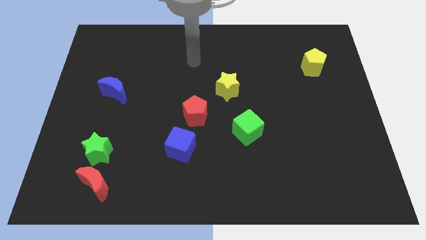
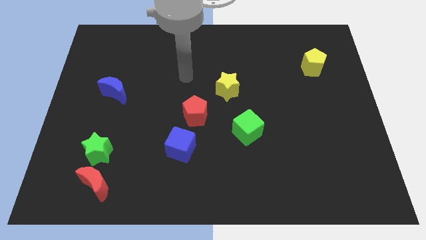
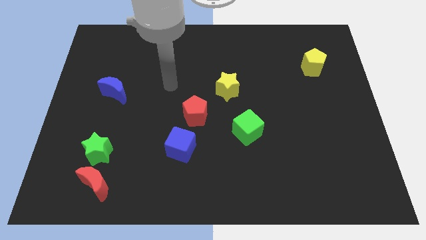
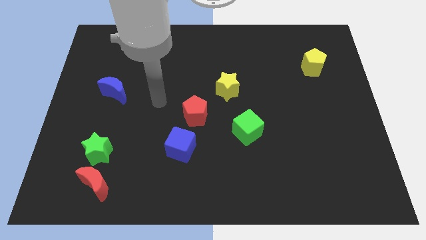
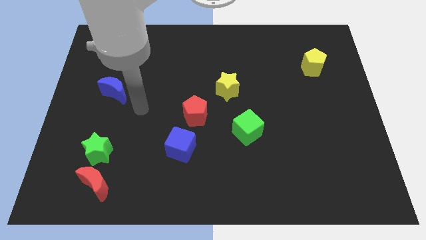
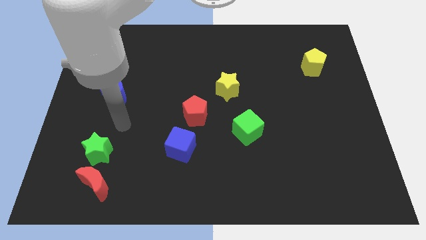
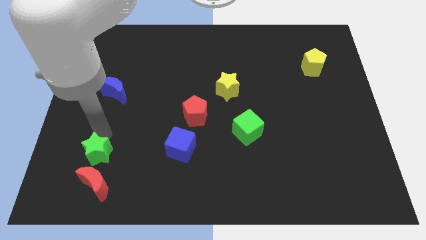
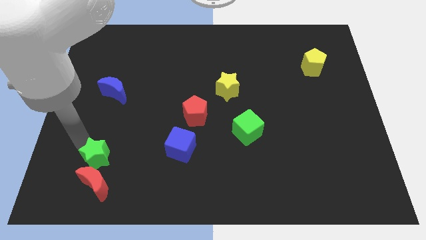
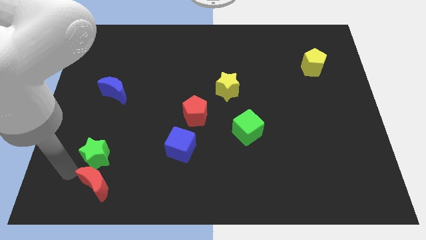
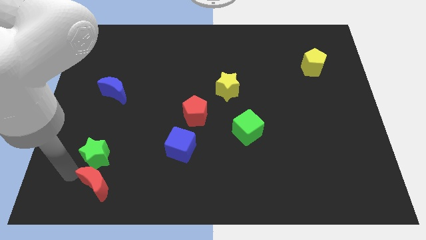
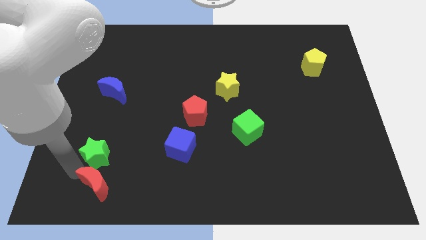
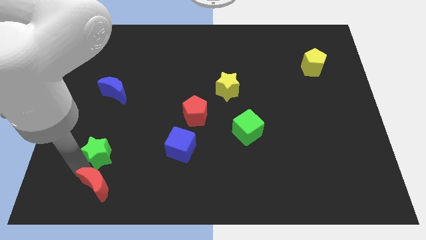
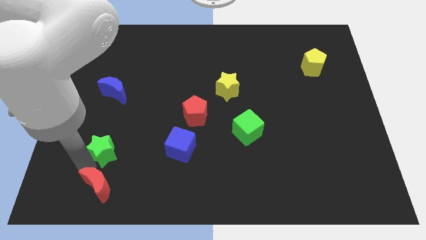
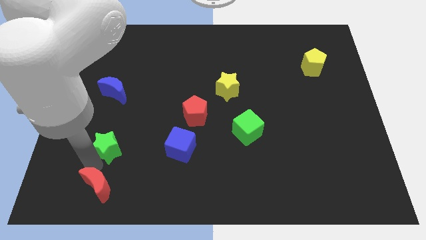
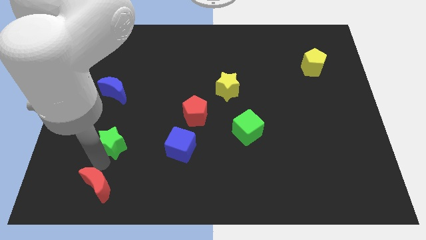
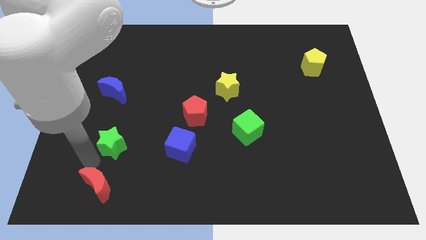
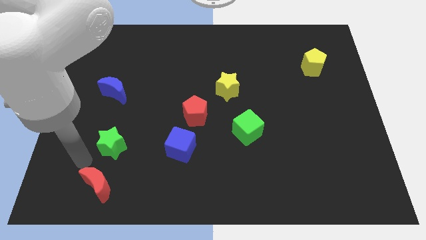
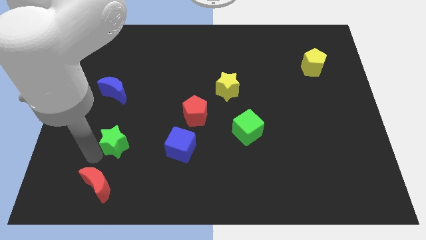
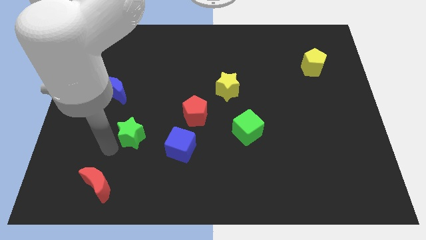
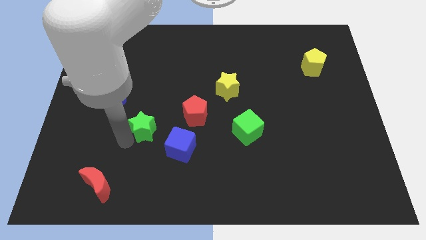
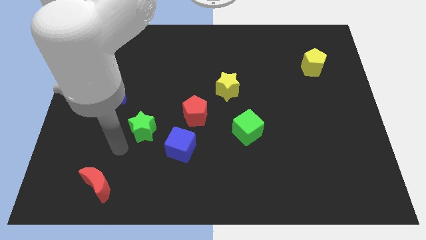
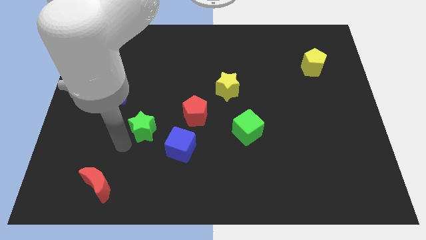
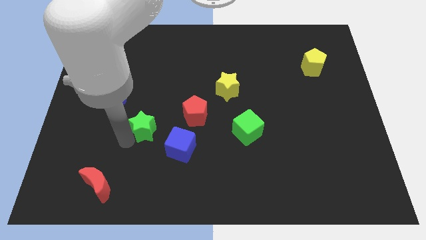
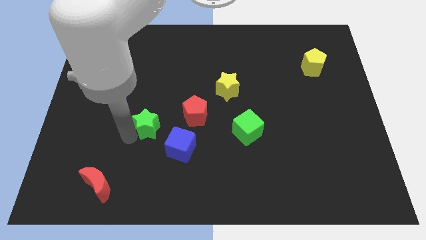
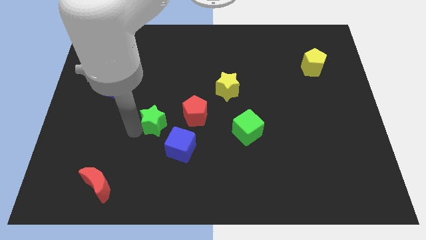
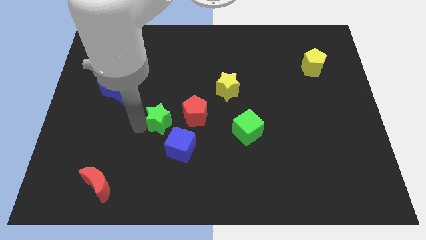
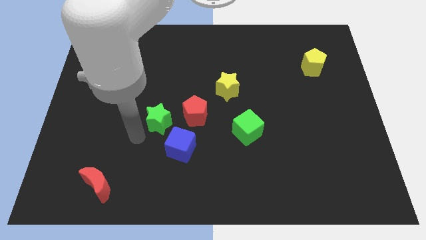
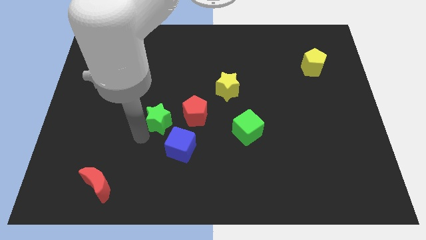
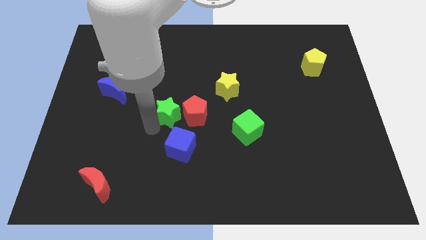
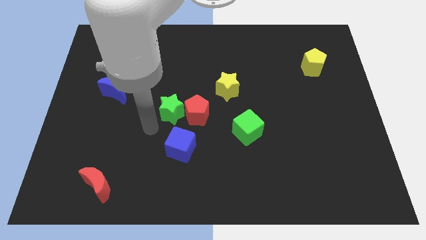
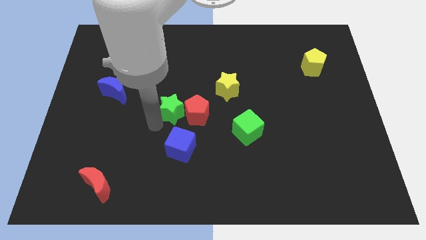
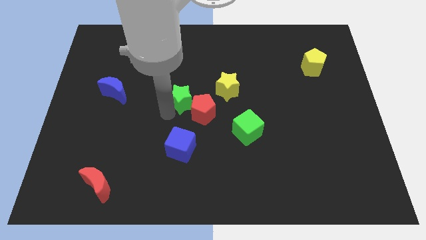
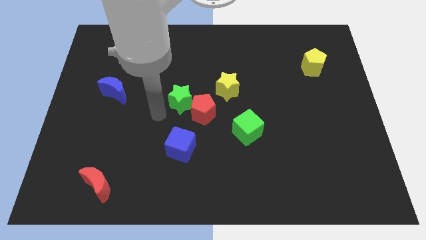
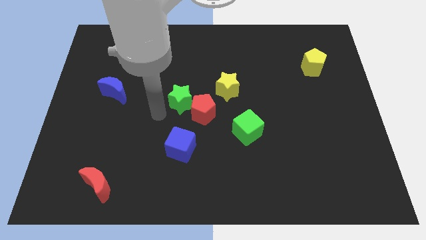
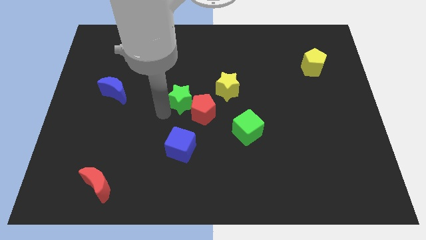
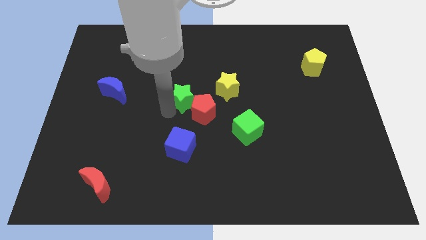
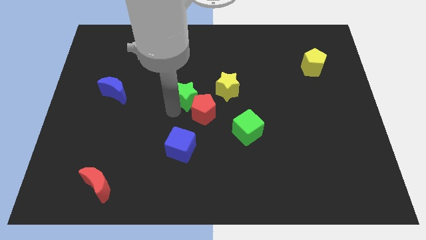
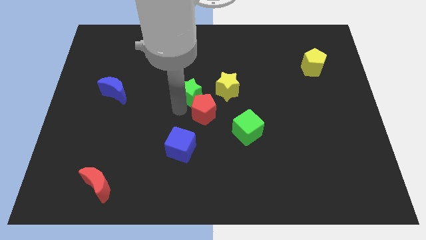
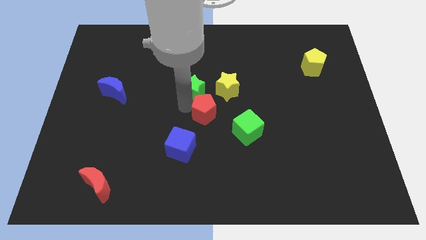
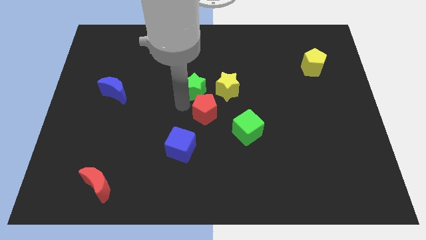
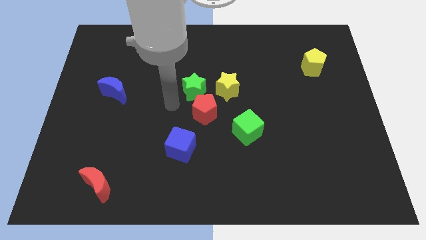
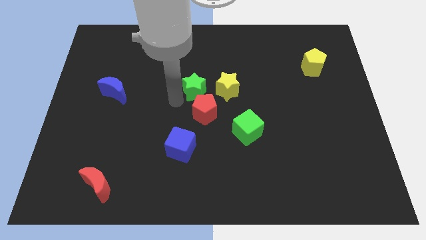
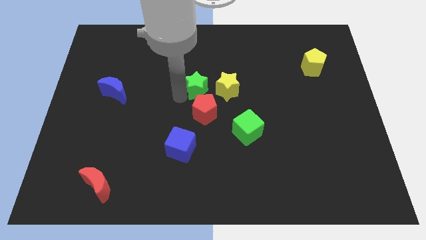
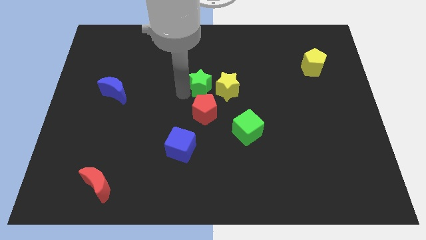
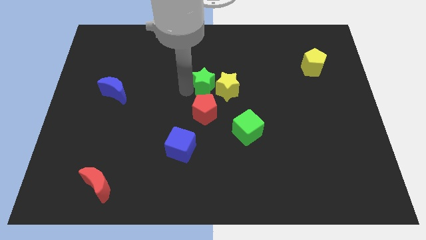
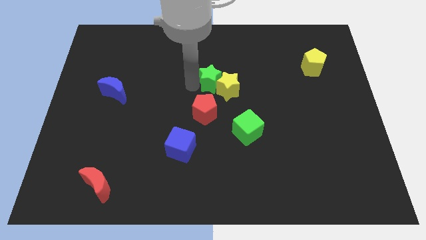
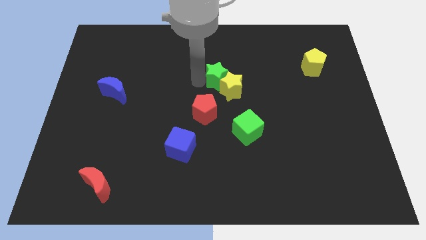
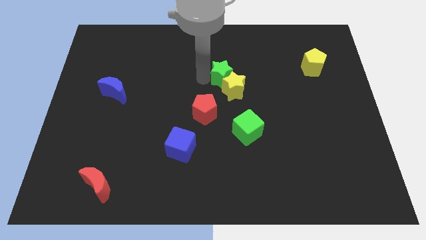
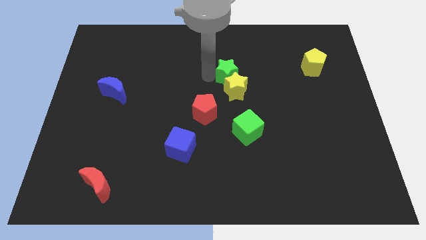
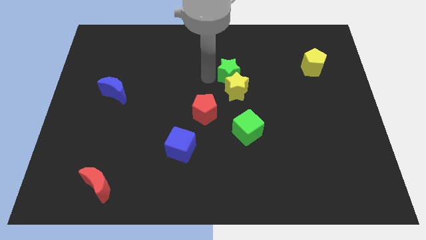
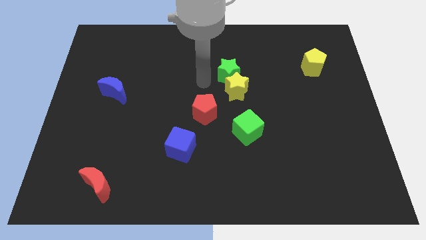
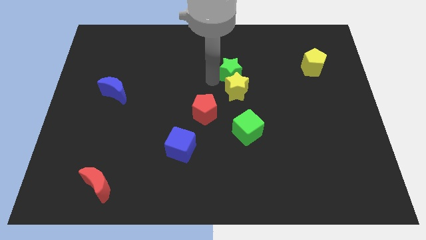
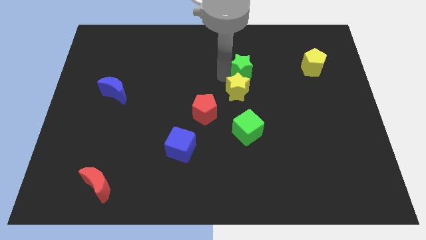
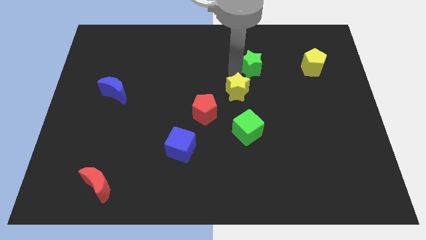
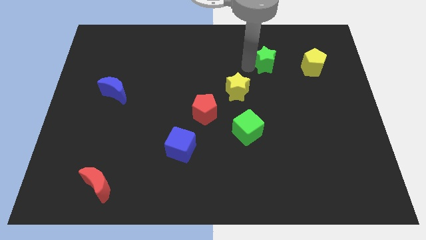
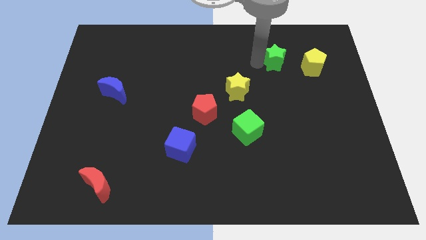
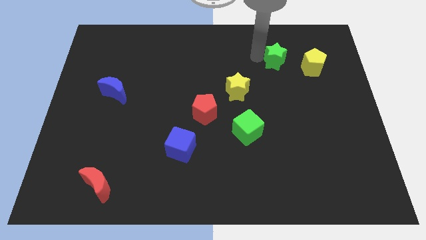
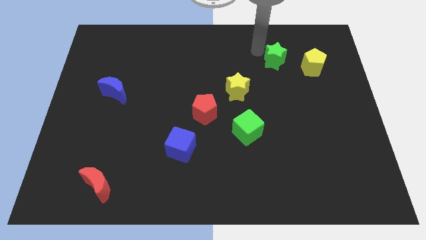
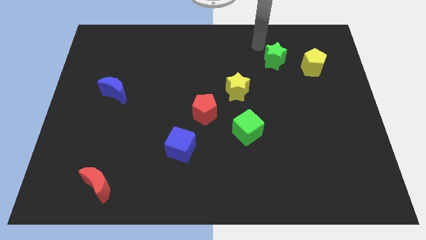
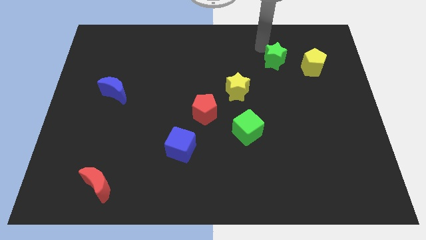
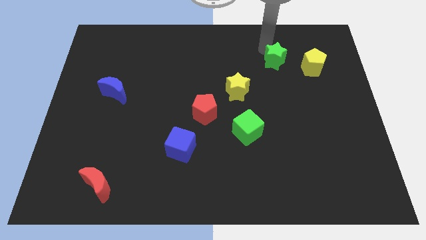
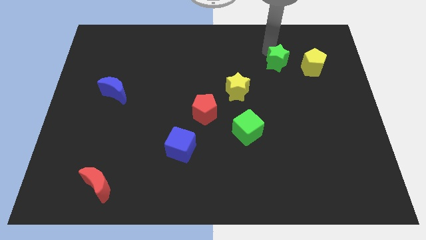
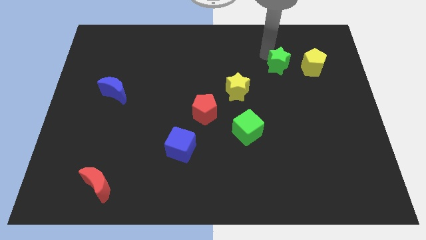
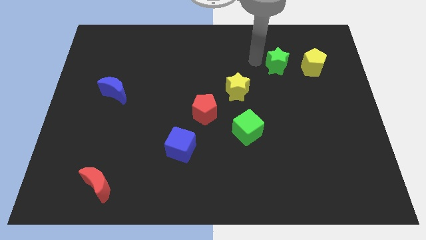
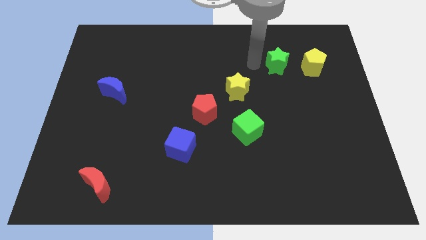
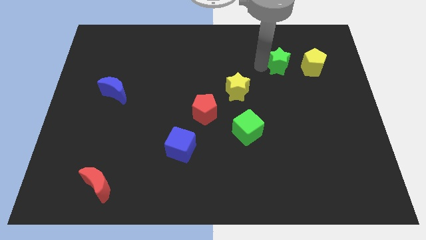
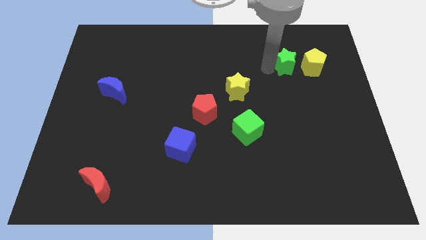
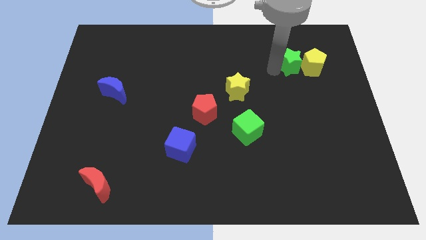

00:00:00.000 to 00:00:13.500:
put the green star to the yellow pentagon
